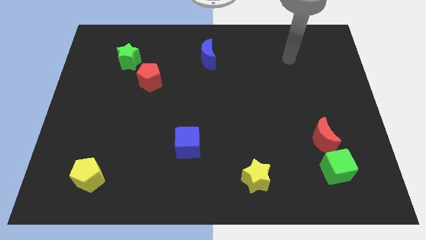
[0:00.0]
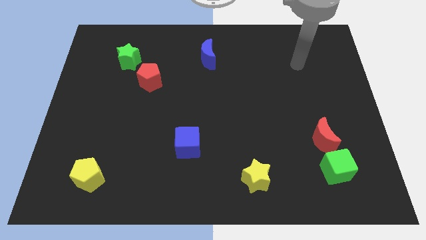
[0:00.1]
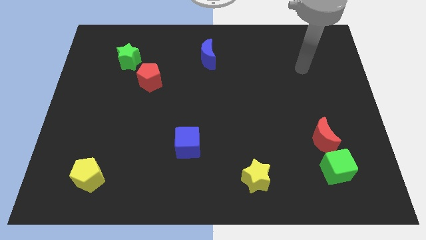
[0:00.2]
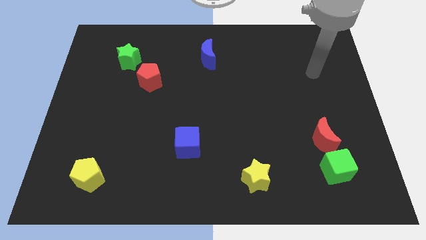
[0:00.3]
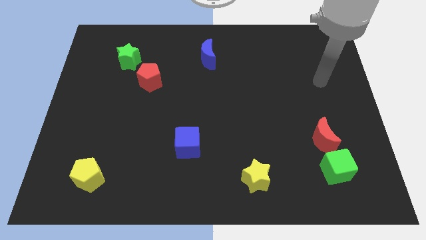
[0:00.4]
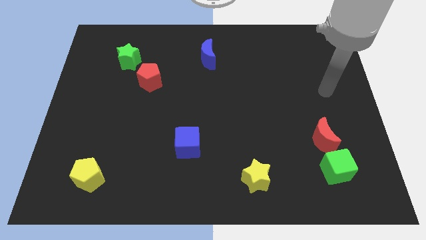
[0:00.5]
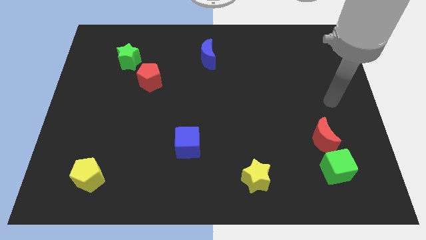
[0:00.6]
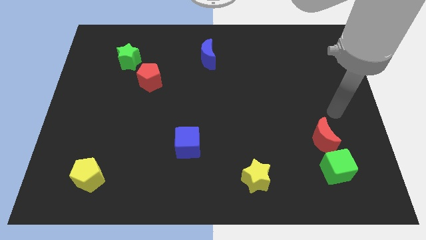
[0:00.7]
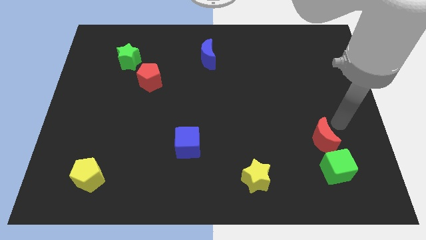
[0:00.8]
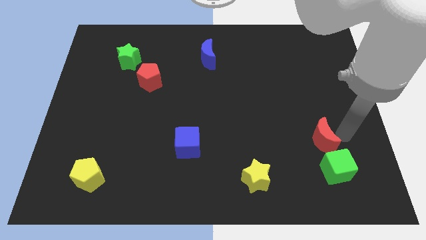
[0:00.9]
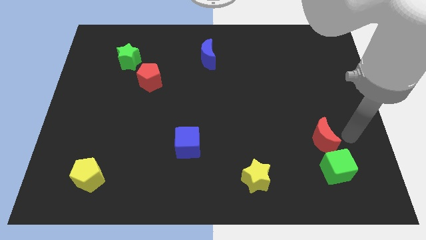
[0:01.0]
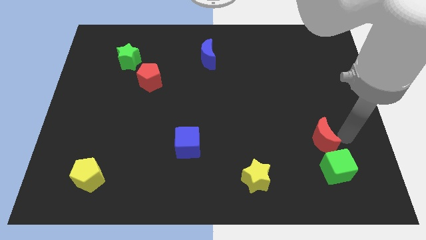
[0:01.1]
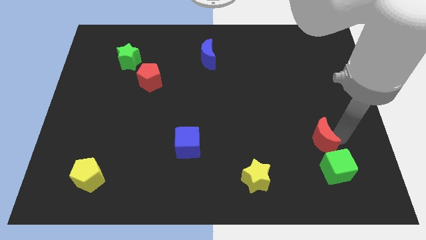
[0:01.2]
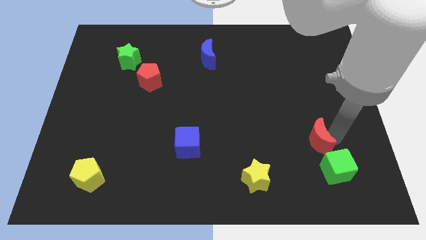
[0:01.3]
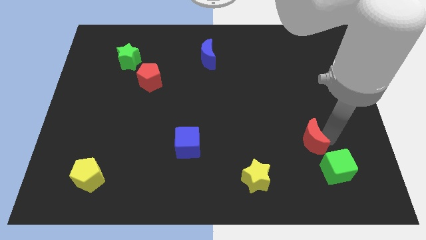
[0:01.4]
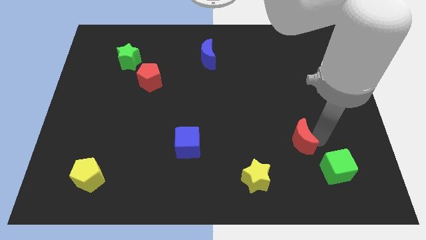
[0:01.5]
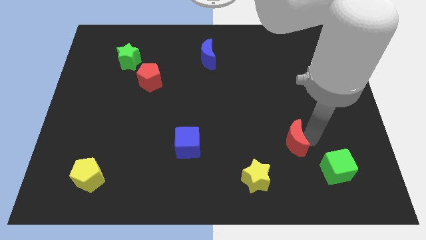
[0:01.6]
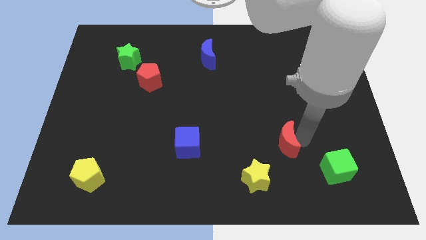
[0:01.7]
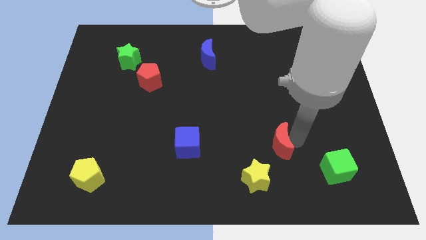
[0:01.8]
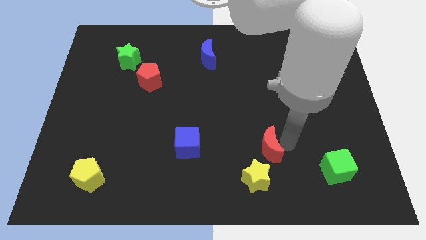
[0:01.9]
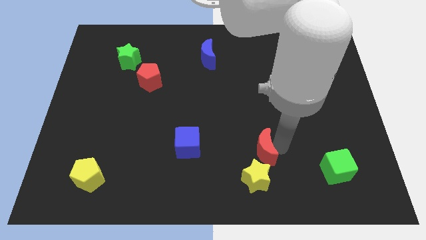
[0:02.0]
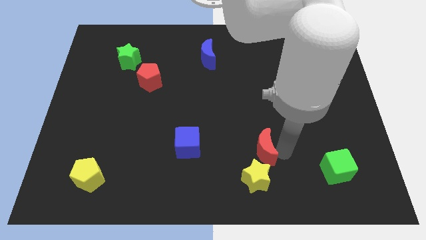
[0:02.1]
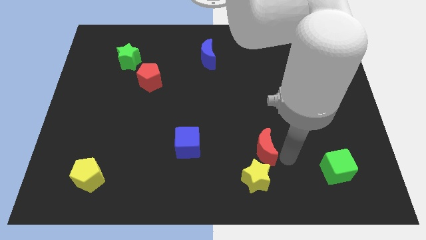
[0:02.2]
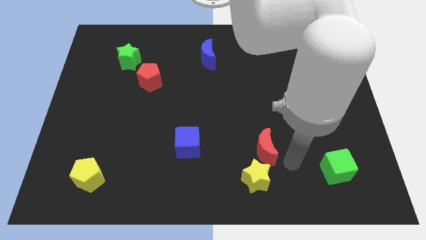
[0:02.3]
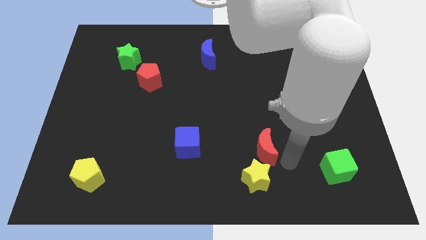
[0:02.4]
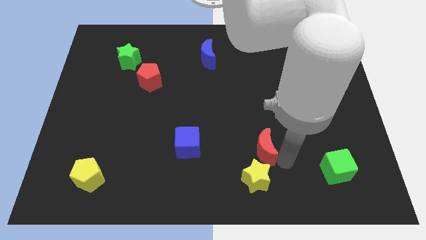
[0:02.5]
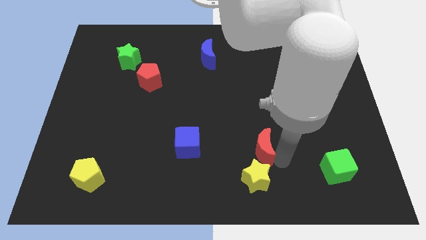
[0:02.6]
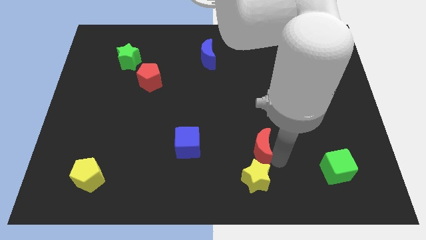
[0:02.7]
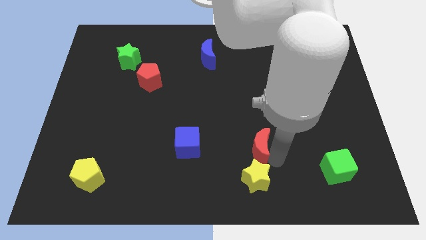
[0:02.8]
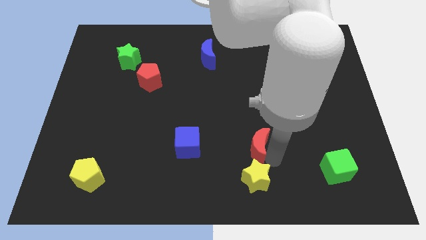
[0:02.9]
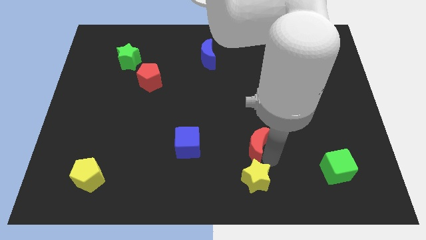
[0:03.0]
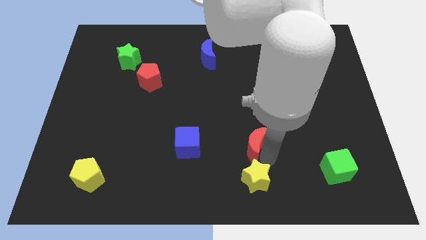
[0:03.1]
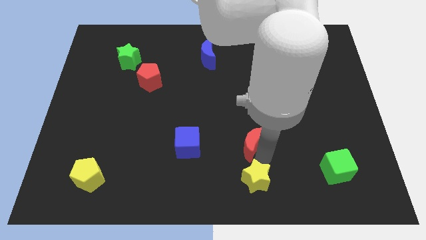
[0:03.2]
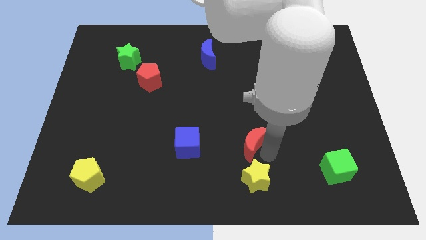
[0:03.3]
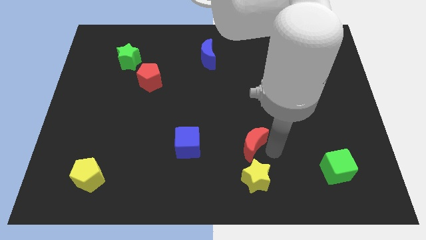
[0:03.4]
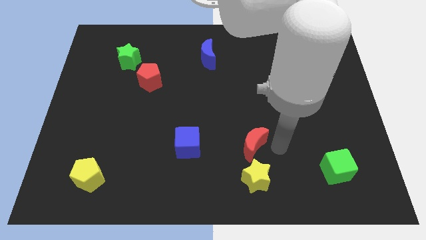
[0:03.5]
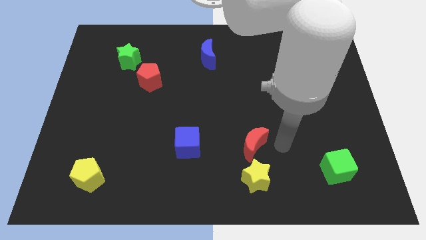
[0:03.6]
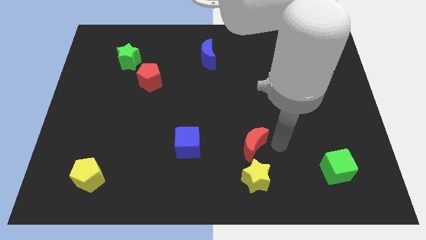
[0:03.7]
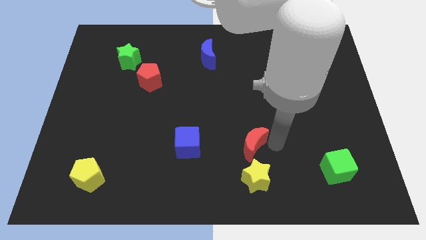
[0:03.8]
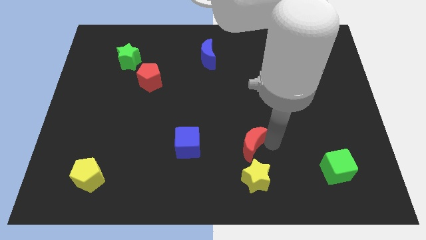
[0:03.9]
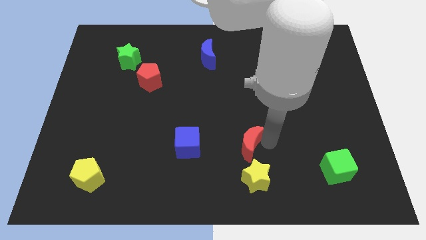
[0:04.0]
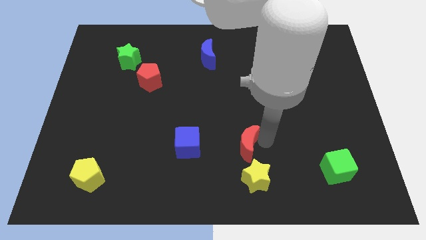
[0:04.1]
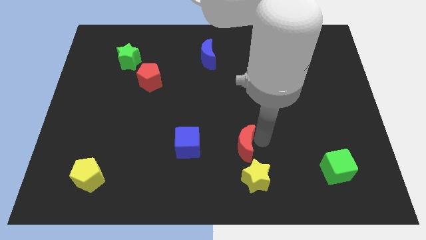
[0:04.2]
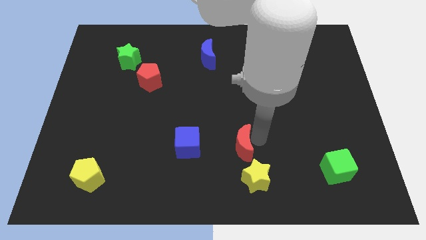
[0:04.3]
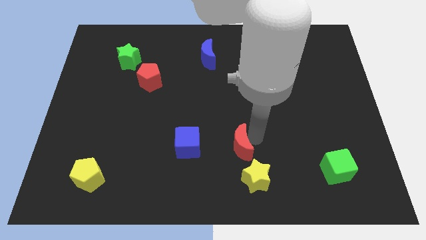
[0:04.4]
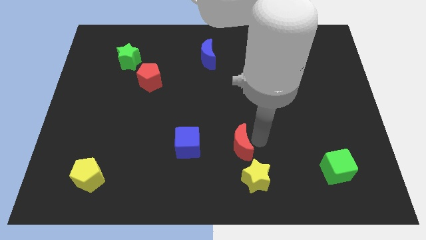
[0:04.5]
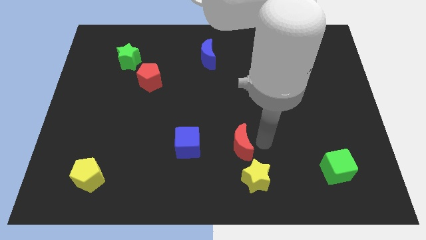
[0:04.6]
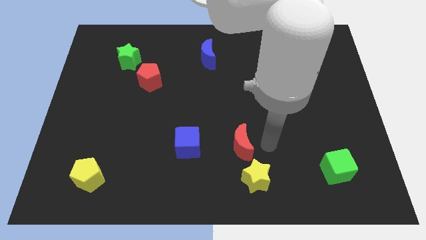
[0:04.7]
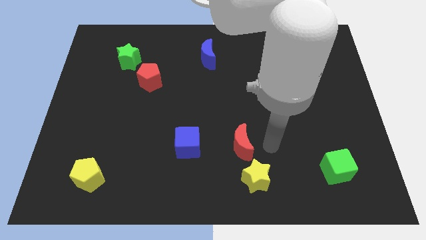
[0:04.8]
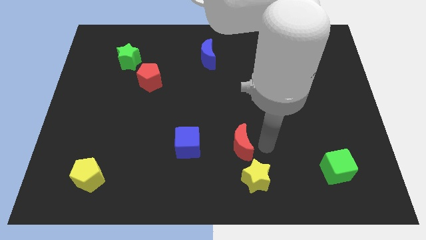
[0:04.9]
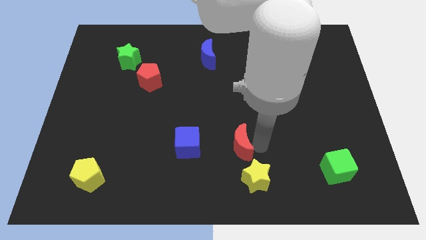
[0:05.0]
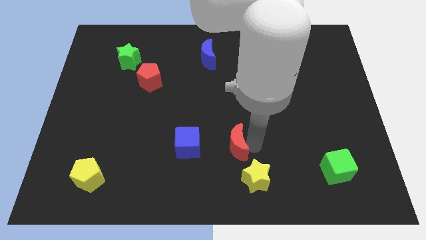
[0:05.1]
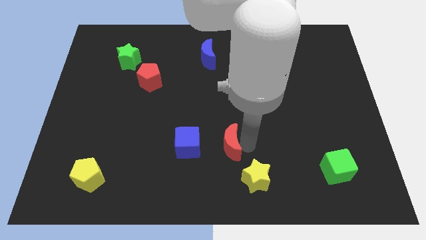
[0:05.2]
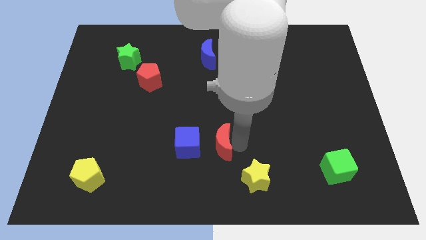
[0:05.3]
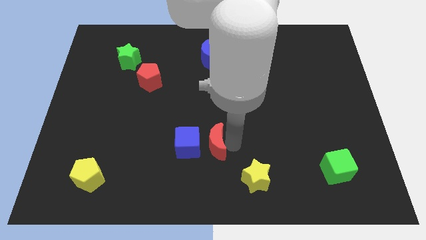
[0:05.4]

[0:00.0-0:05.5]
push the red moon next to the blue cube

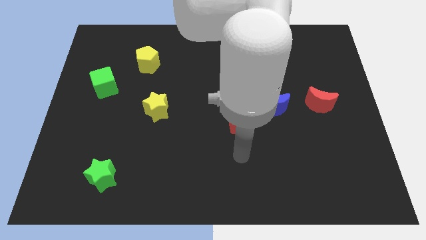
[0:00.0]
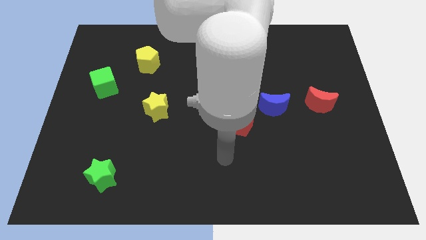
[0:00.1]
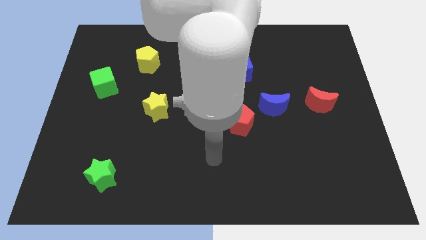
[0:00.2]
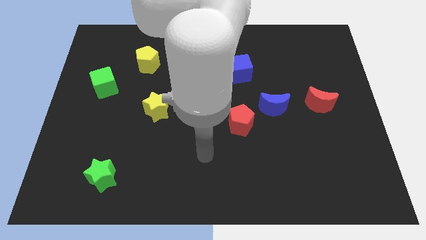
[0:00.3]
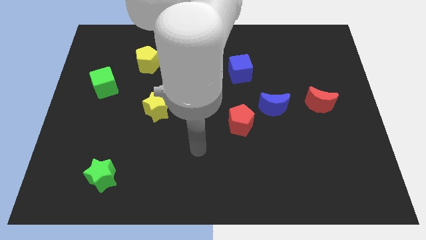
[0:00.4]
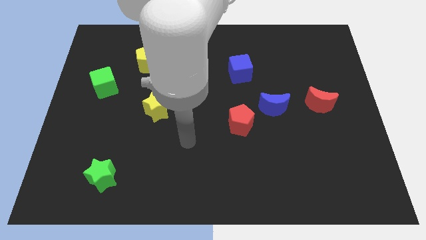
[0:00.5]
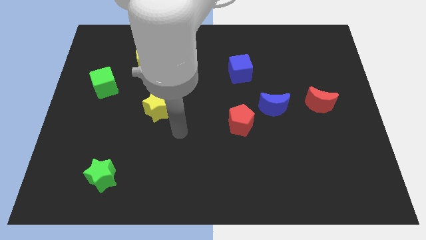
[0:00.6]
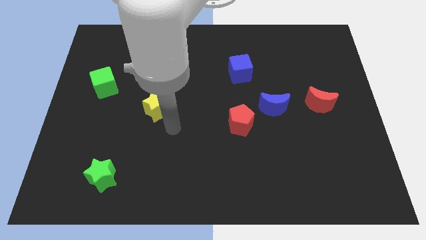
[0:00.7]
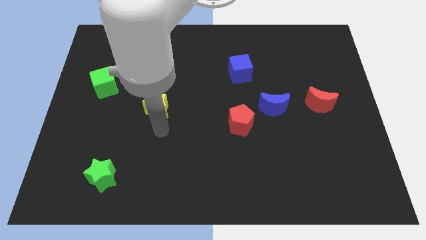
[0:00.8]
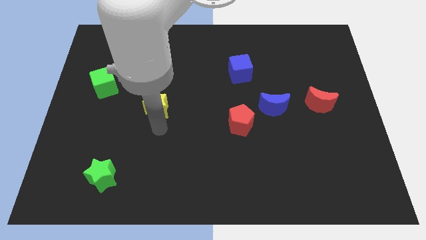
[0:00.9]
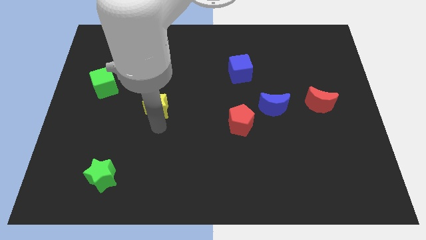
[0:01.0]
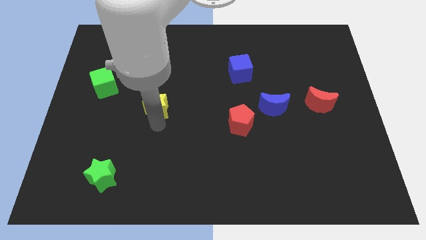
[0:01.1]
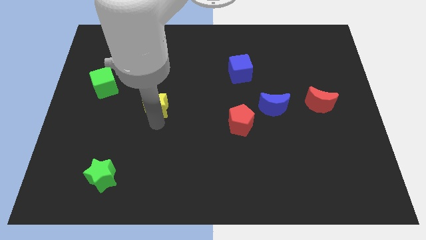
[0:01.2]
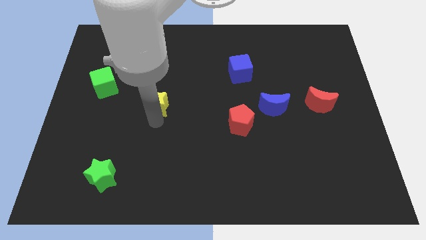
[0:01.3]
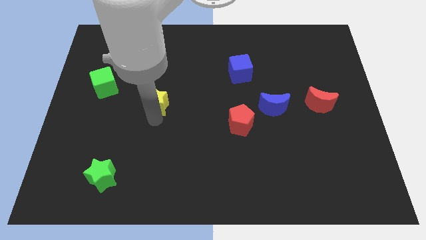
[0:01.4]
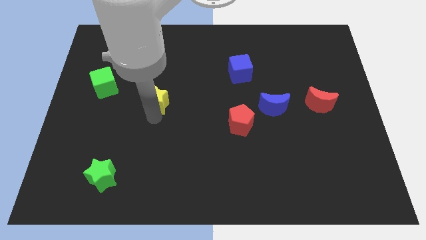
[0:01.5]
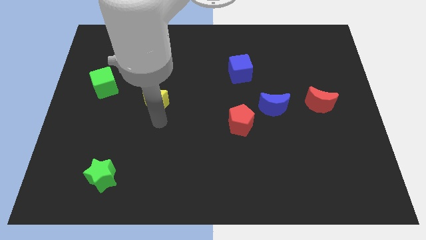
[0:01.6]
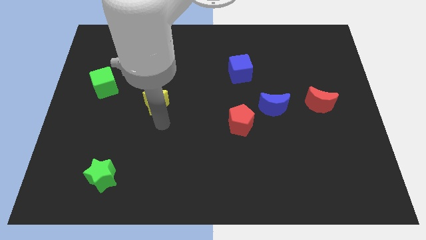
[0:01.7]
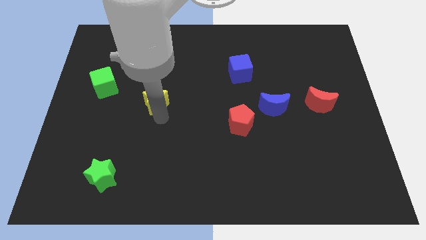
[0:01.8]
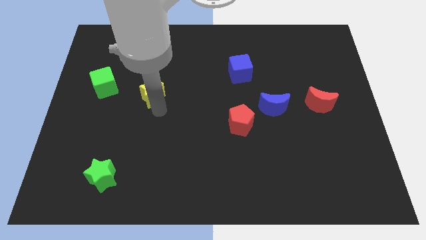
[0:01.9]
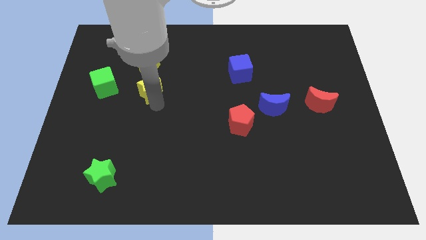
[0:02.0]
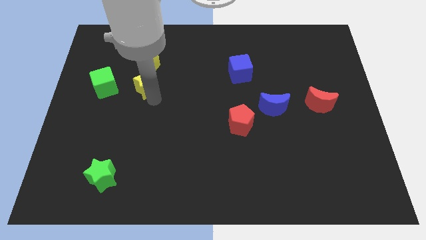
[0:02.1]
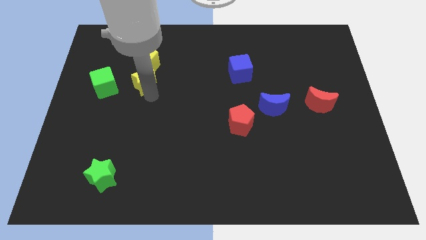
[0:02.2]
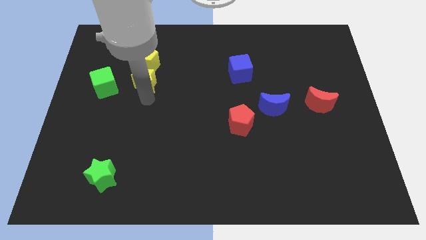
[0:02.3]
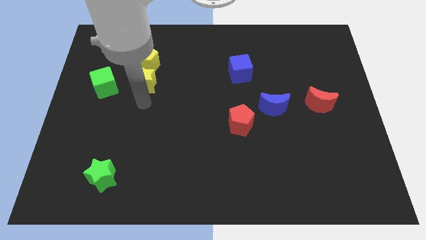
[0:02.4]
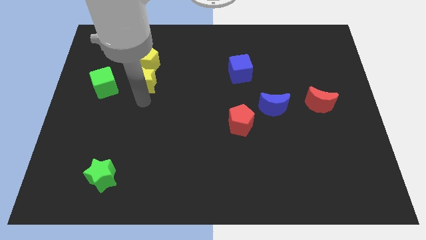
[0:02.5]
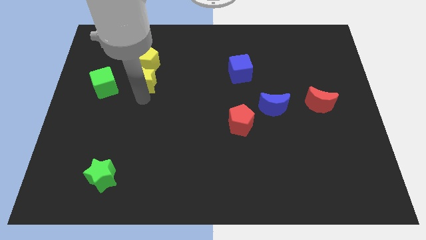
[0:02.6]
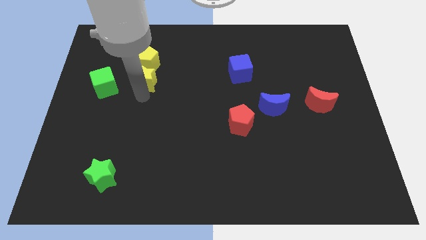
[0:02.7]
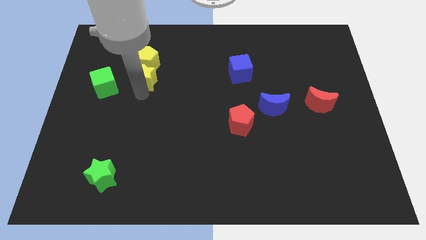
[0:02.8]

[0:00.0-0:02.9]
push the yellow star close to the yellow pentagon
